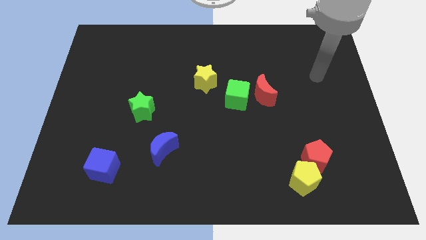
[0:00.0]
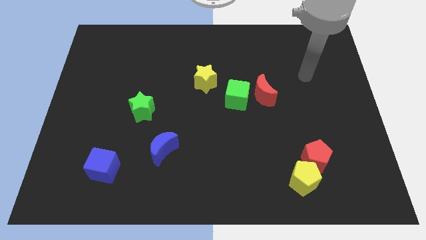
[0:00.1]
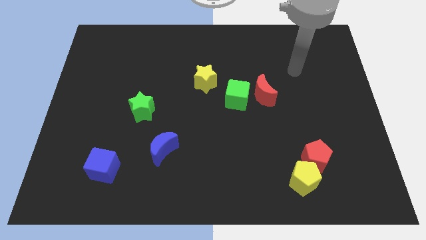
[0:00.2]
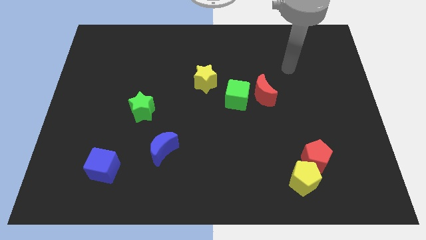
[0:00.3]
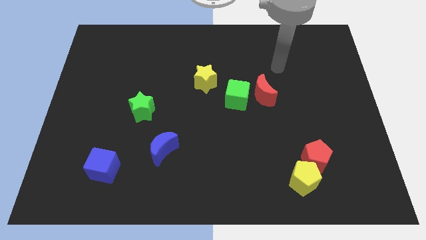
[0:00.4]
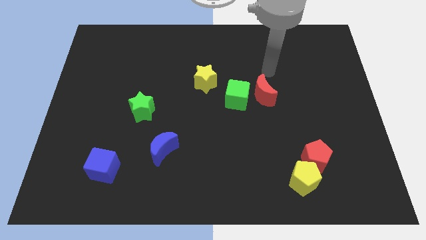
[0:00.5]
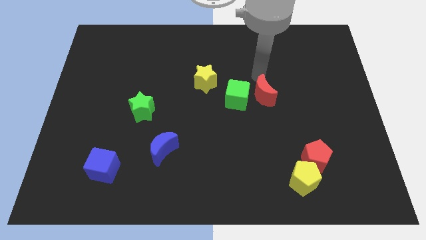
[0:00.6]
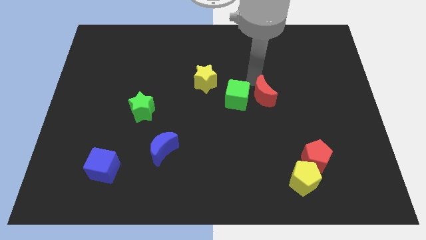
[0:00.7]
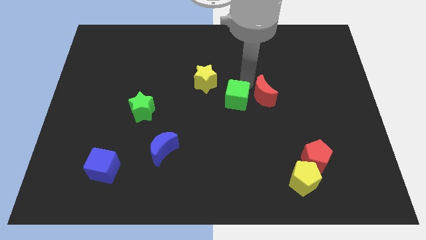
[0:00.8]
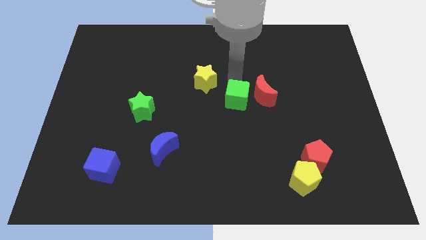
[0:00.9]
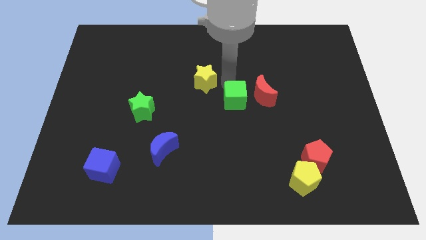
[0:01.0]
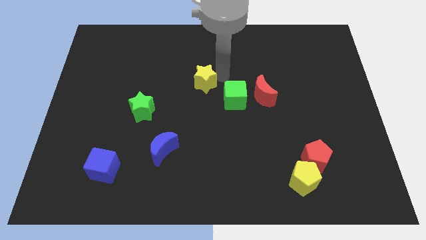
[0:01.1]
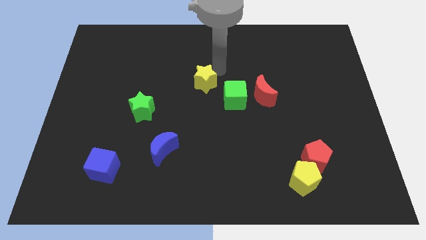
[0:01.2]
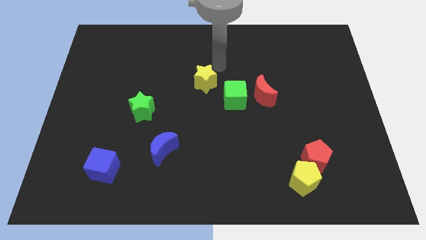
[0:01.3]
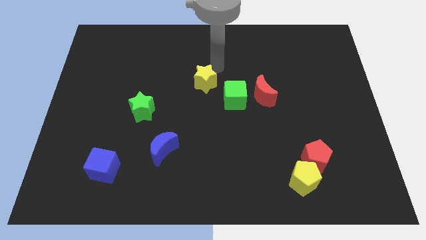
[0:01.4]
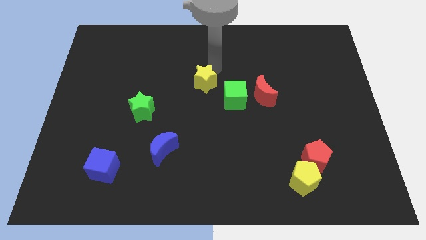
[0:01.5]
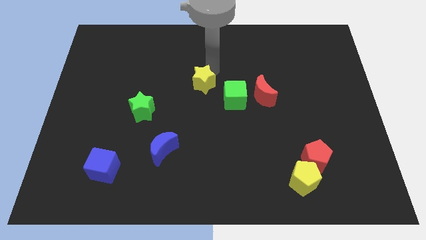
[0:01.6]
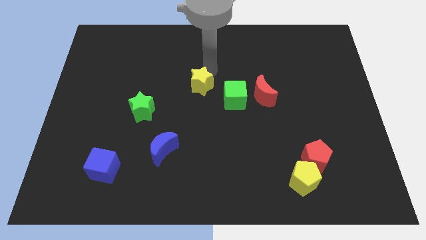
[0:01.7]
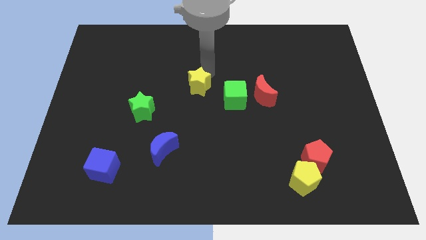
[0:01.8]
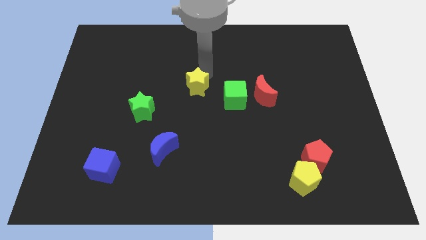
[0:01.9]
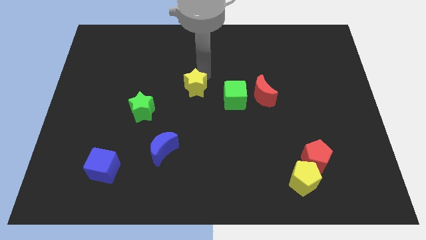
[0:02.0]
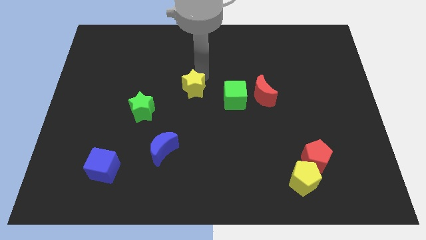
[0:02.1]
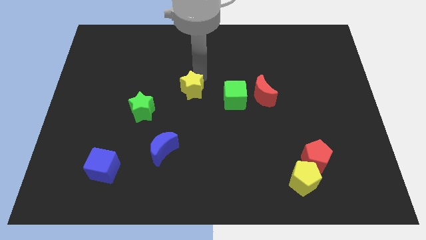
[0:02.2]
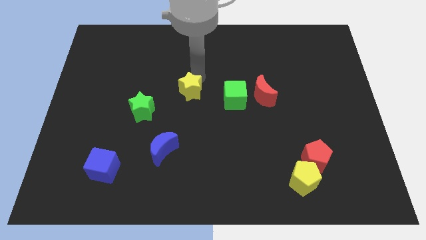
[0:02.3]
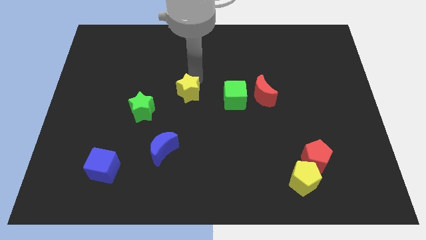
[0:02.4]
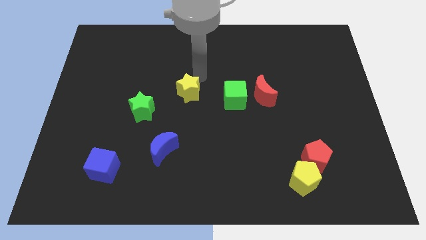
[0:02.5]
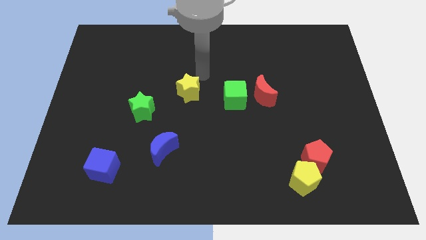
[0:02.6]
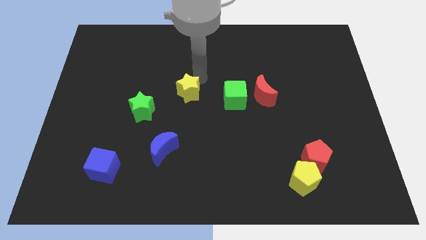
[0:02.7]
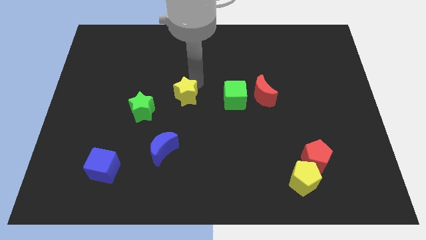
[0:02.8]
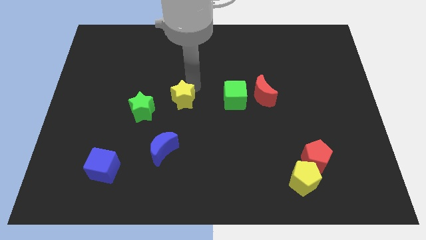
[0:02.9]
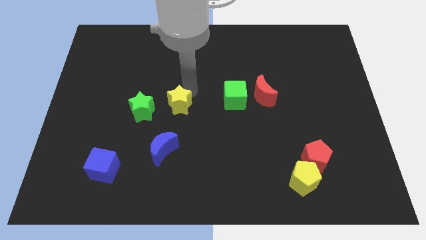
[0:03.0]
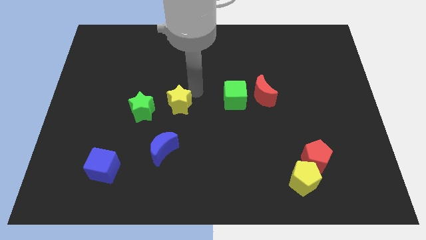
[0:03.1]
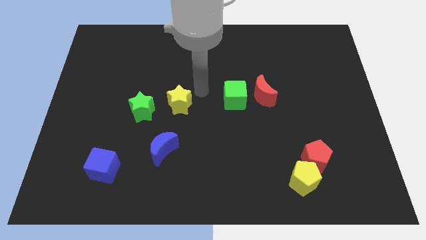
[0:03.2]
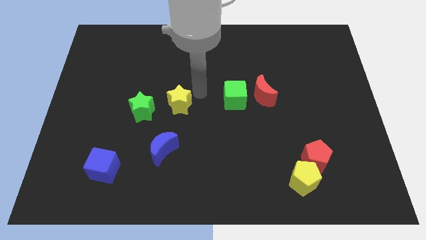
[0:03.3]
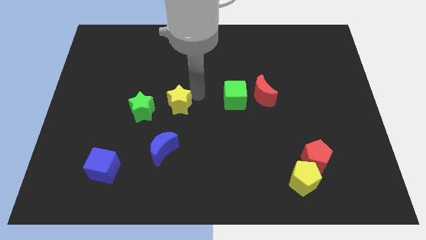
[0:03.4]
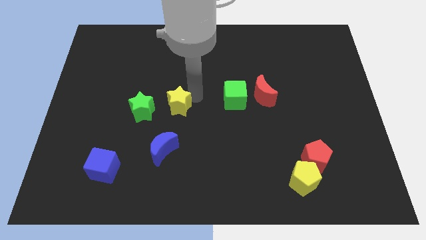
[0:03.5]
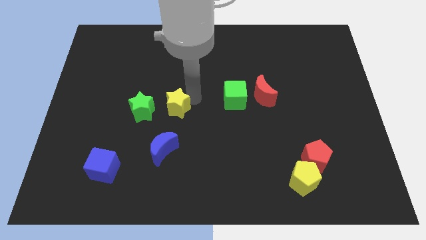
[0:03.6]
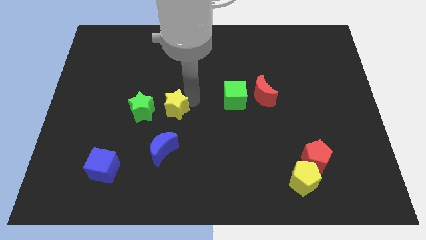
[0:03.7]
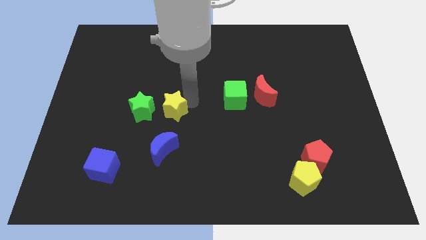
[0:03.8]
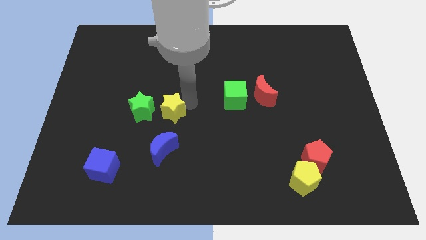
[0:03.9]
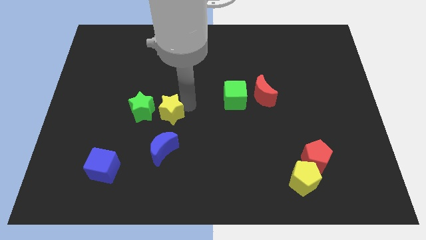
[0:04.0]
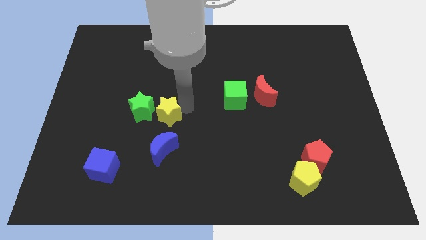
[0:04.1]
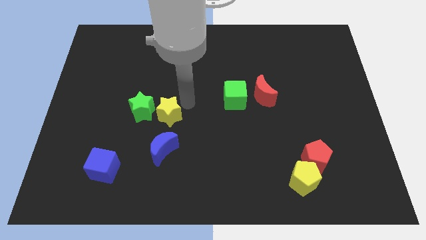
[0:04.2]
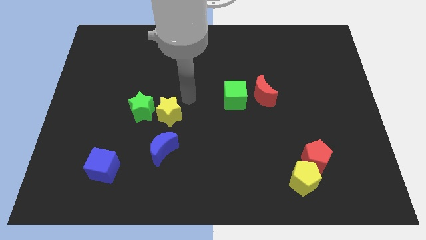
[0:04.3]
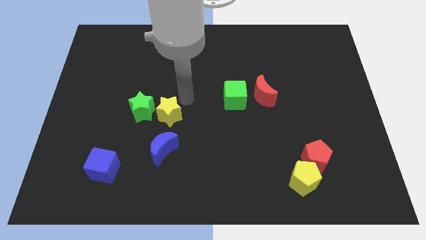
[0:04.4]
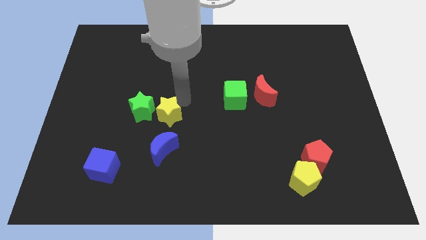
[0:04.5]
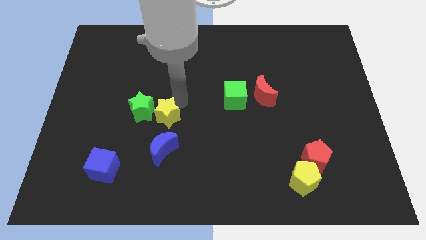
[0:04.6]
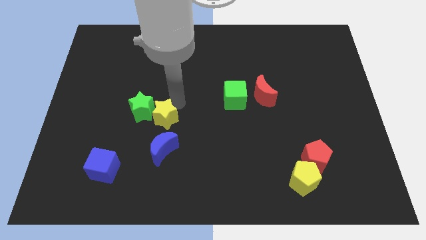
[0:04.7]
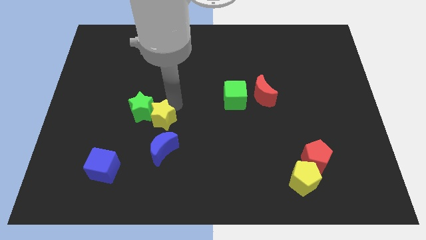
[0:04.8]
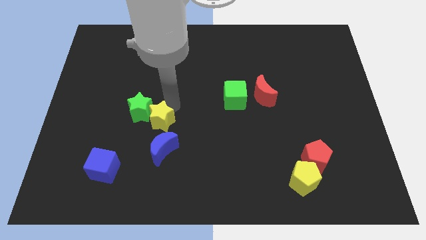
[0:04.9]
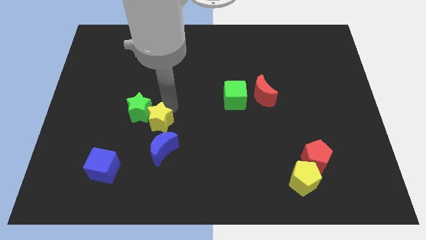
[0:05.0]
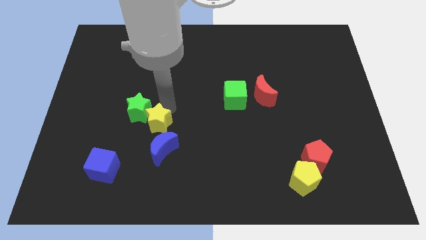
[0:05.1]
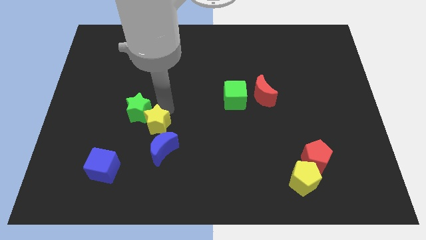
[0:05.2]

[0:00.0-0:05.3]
slide the yellow star to the bottom side of the green star

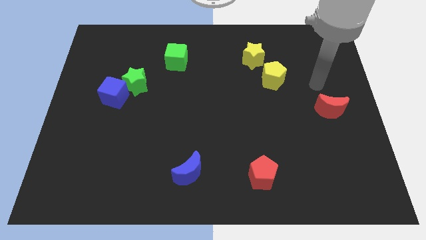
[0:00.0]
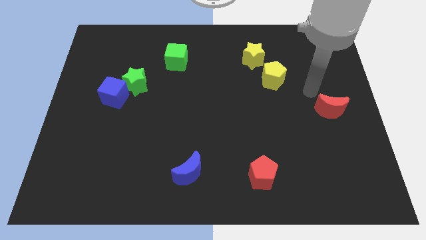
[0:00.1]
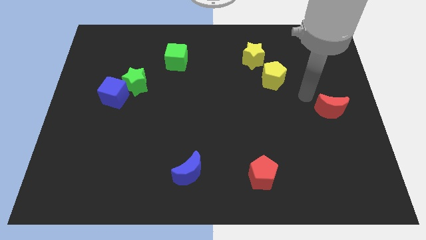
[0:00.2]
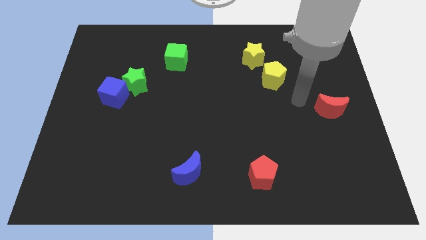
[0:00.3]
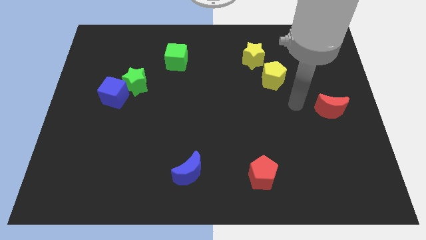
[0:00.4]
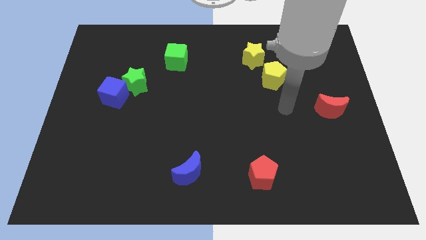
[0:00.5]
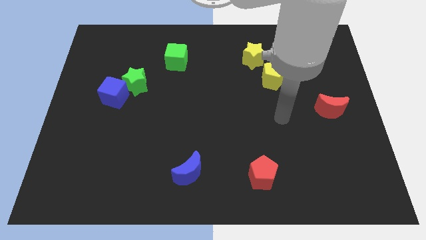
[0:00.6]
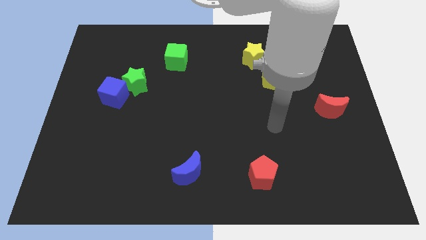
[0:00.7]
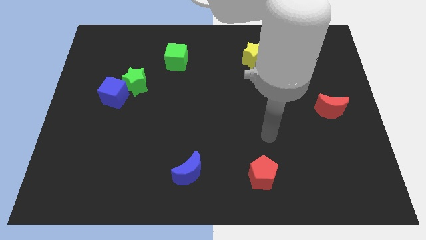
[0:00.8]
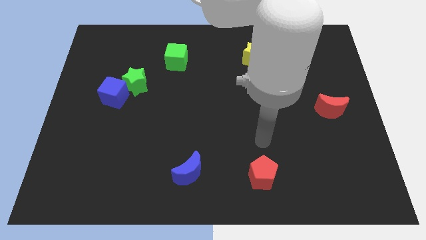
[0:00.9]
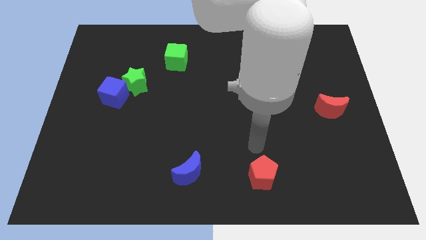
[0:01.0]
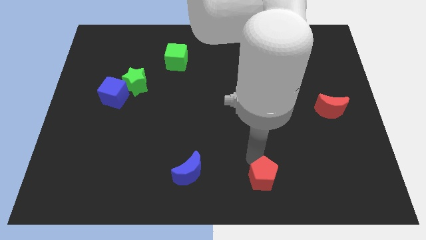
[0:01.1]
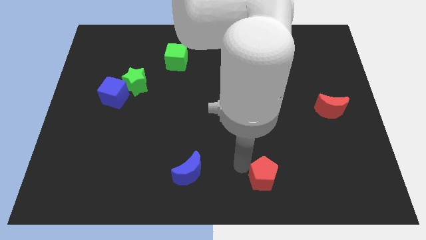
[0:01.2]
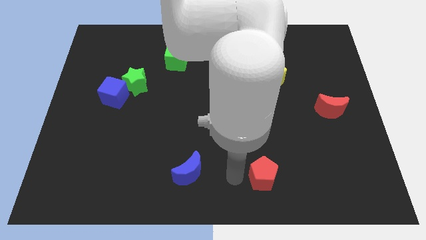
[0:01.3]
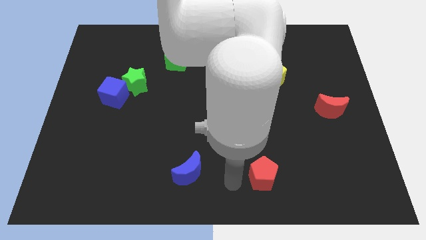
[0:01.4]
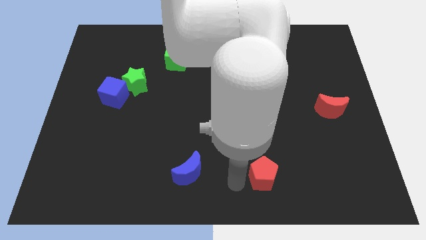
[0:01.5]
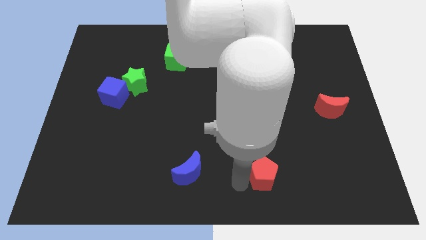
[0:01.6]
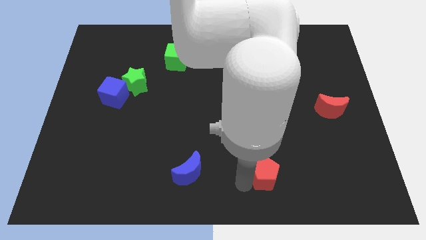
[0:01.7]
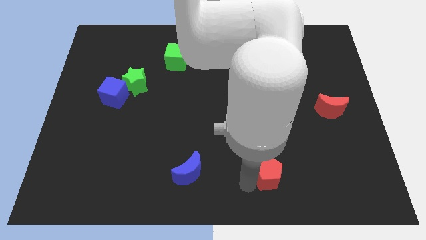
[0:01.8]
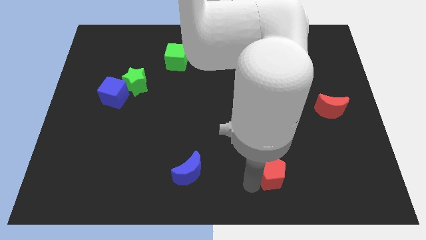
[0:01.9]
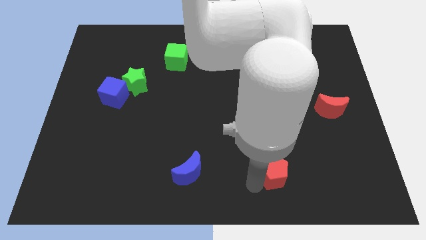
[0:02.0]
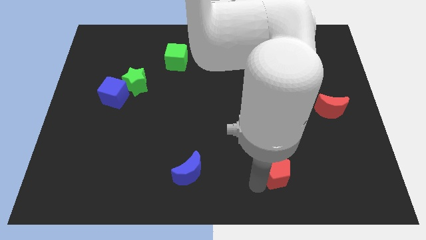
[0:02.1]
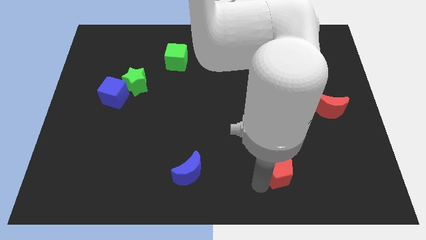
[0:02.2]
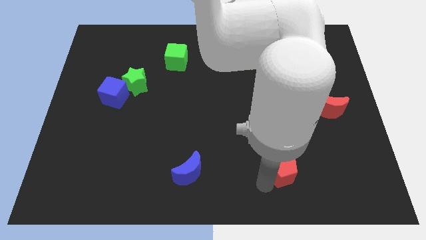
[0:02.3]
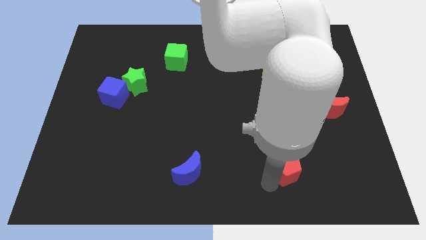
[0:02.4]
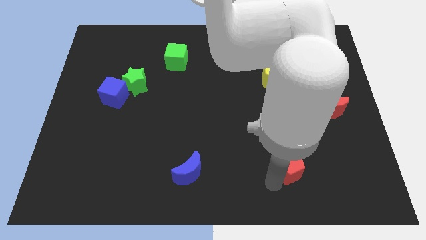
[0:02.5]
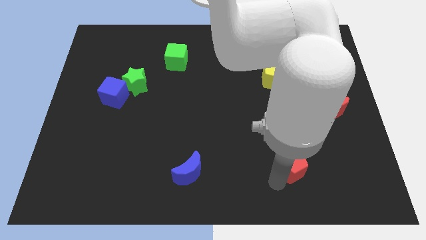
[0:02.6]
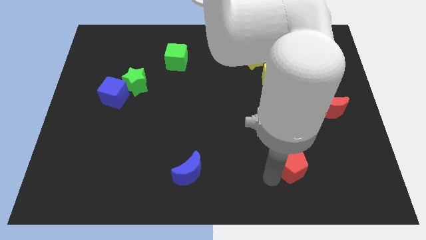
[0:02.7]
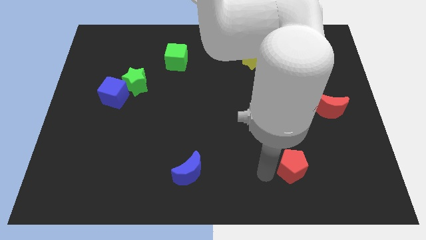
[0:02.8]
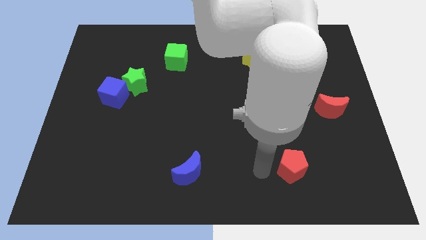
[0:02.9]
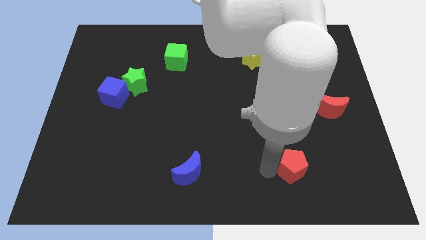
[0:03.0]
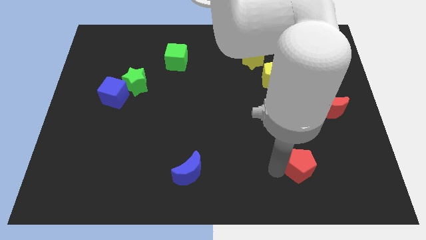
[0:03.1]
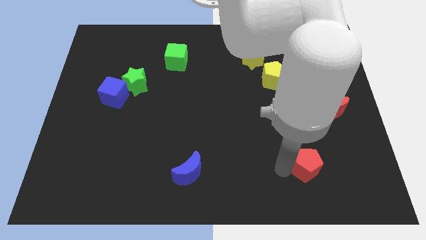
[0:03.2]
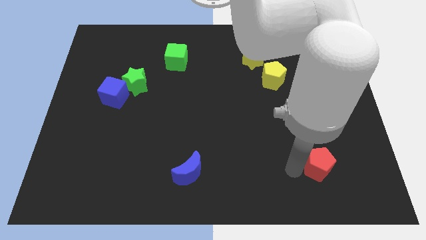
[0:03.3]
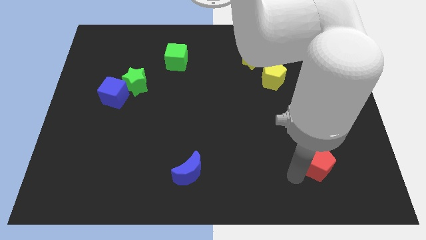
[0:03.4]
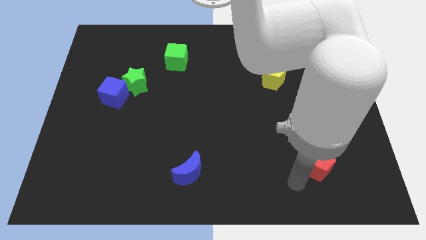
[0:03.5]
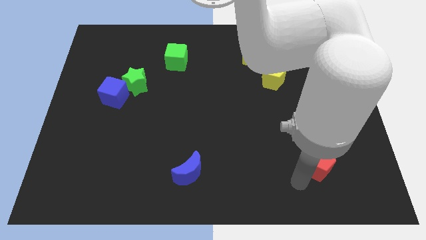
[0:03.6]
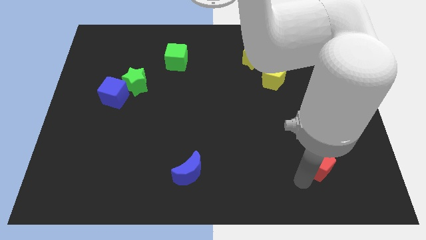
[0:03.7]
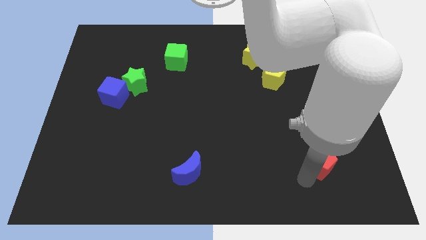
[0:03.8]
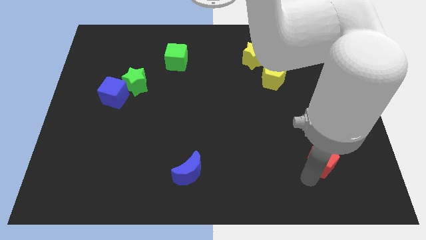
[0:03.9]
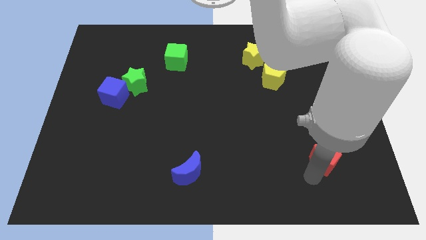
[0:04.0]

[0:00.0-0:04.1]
put the red pentagon to the bottom side of the red moon
